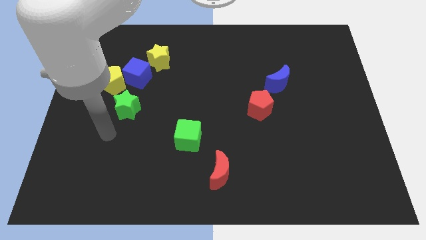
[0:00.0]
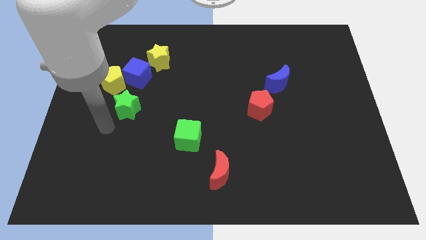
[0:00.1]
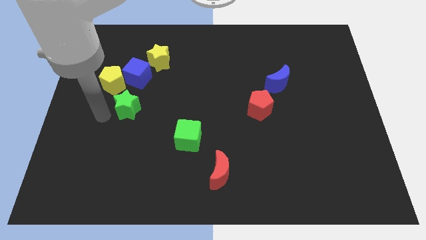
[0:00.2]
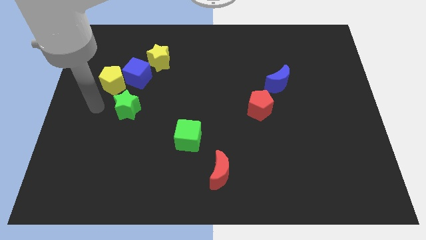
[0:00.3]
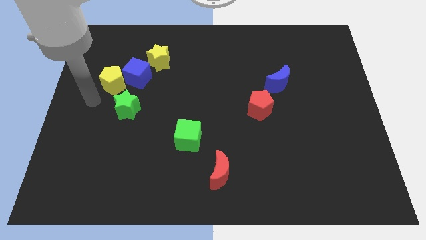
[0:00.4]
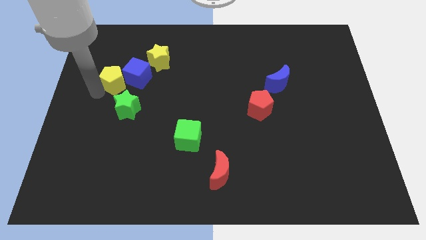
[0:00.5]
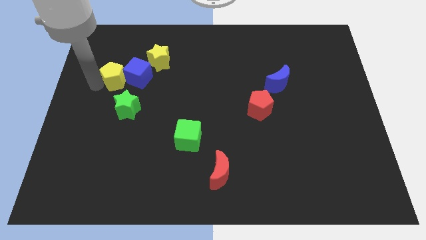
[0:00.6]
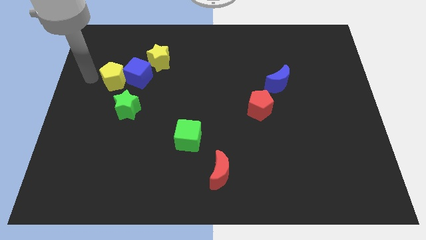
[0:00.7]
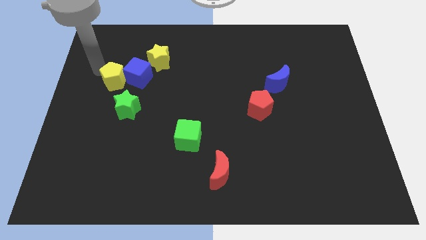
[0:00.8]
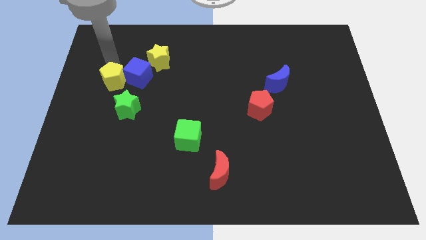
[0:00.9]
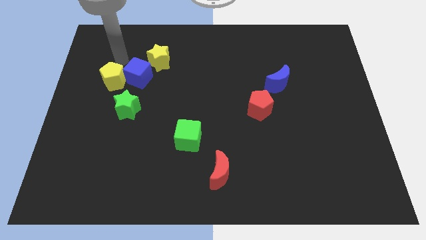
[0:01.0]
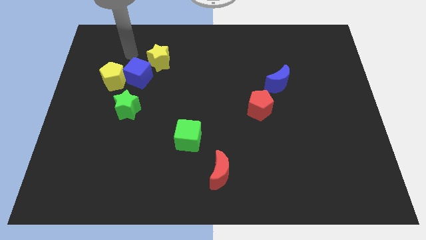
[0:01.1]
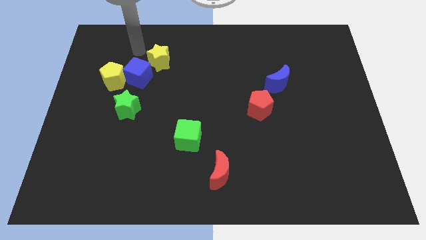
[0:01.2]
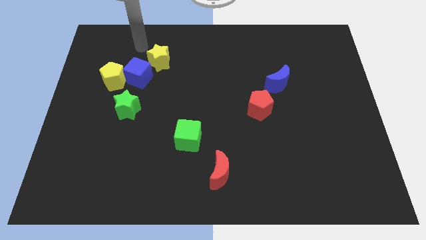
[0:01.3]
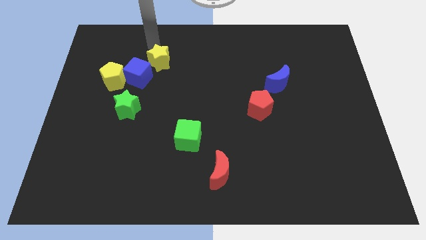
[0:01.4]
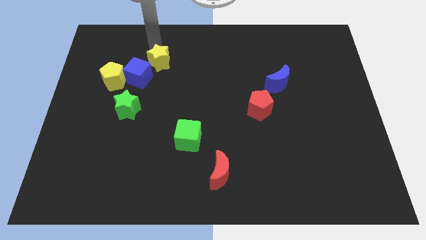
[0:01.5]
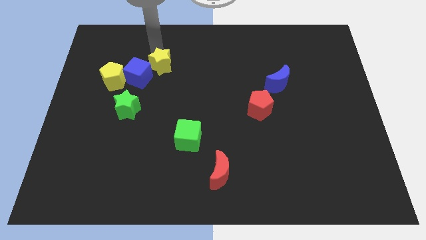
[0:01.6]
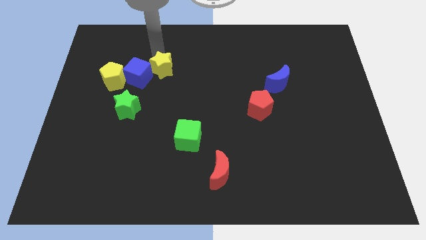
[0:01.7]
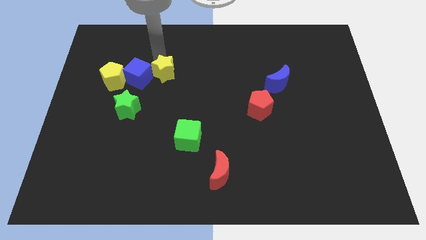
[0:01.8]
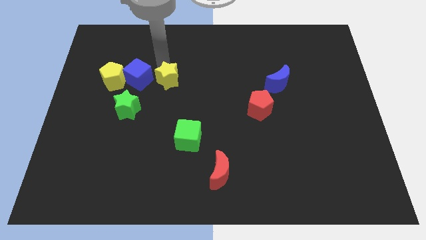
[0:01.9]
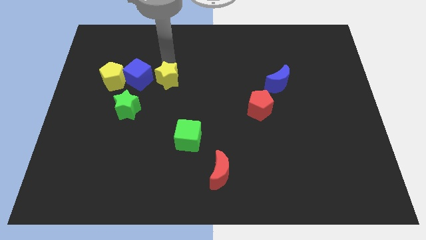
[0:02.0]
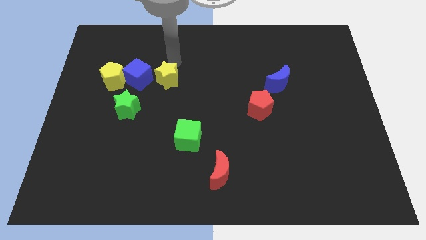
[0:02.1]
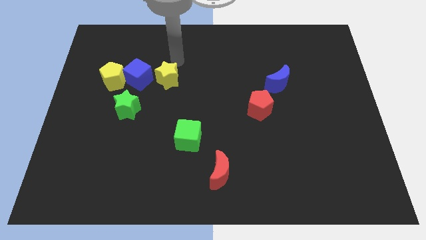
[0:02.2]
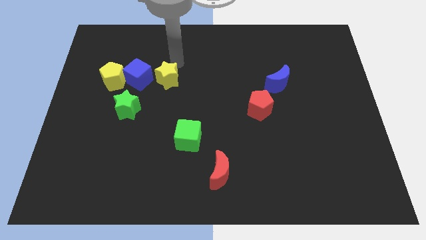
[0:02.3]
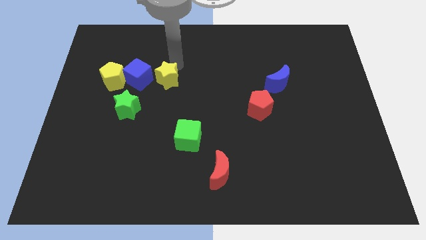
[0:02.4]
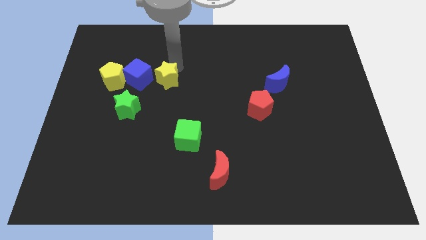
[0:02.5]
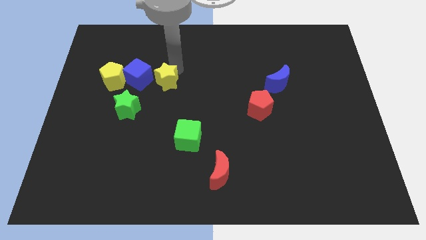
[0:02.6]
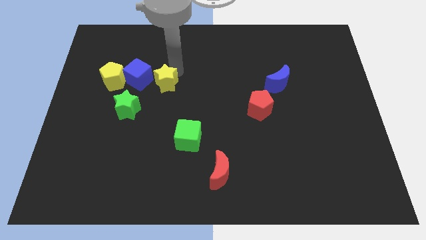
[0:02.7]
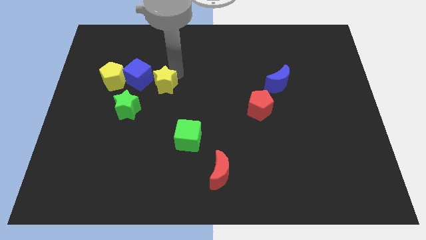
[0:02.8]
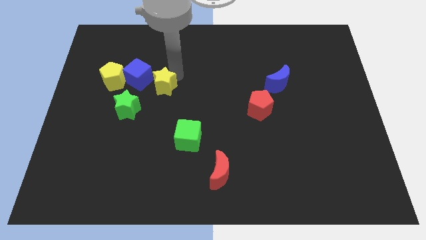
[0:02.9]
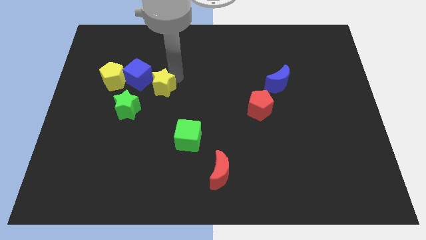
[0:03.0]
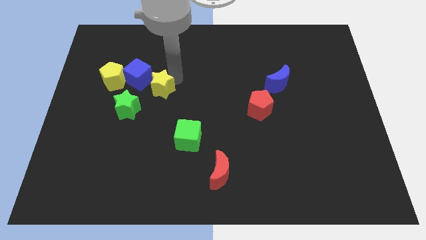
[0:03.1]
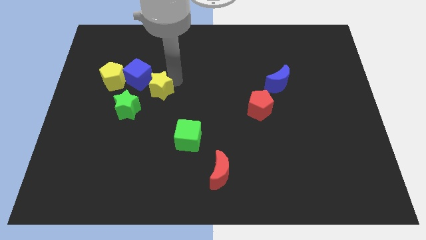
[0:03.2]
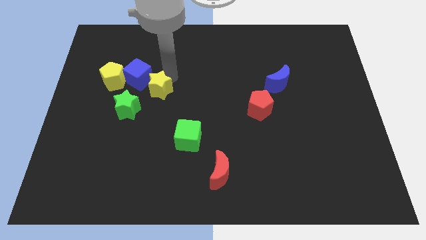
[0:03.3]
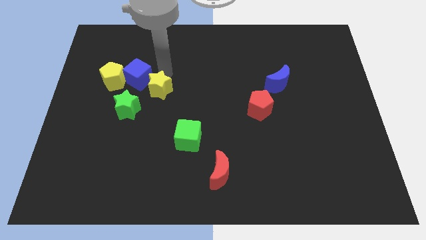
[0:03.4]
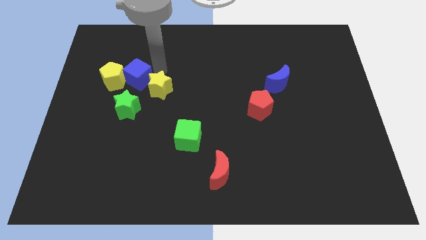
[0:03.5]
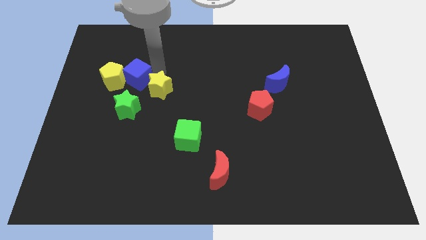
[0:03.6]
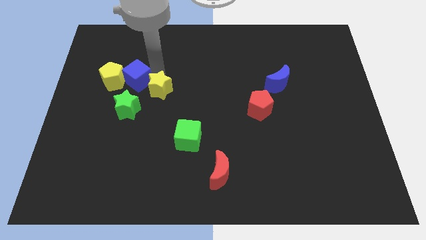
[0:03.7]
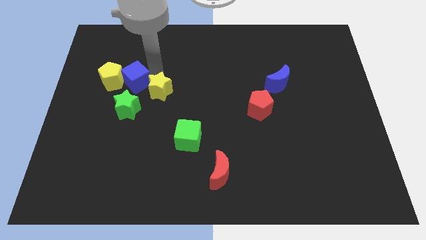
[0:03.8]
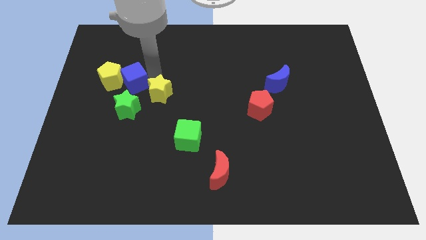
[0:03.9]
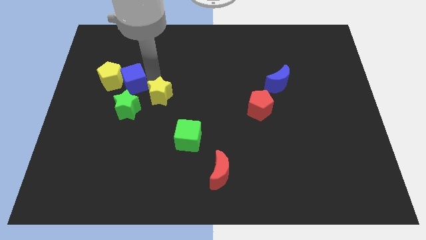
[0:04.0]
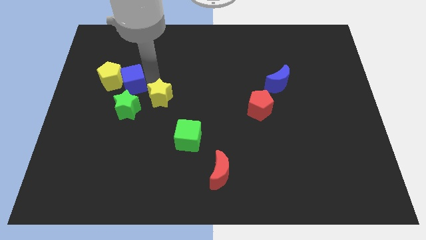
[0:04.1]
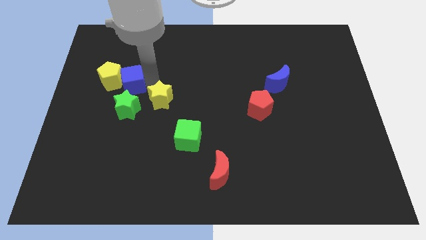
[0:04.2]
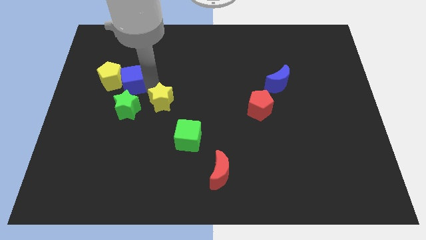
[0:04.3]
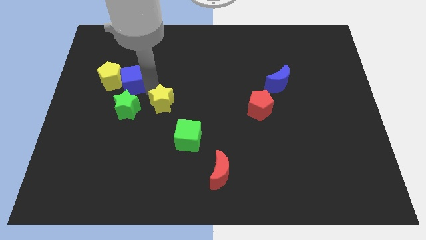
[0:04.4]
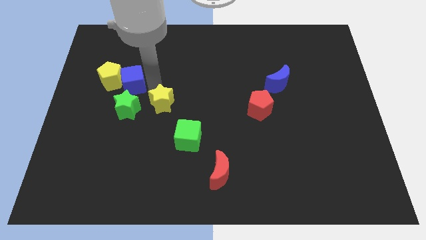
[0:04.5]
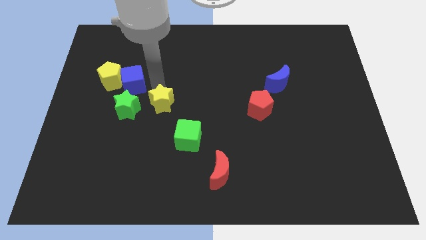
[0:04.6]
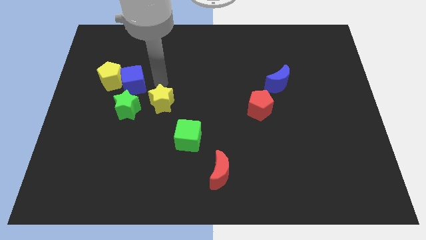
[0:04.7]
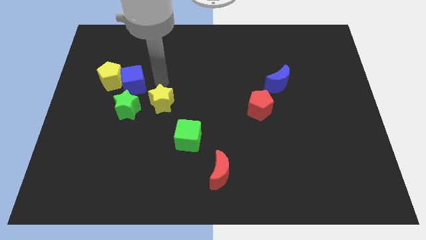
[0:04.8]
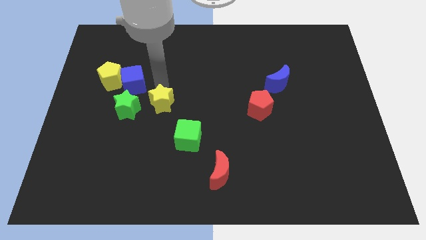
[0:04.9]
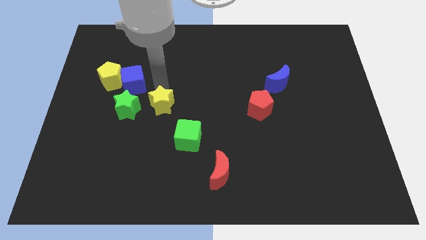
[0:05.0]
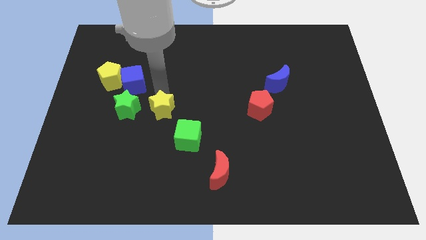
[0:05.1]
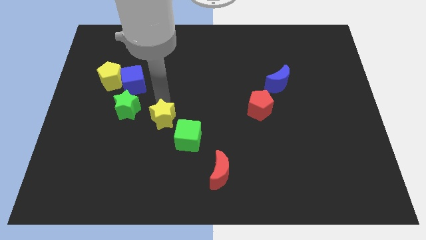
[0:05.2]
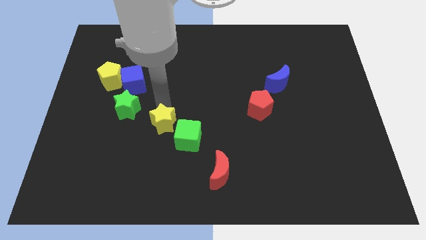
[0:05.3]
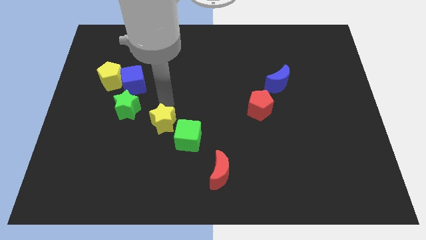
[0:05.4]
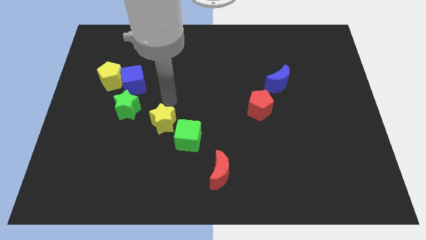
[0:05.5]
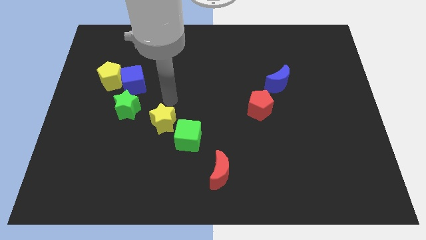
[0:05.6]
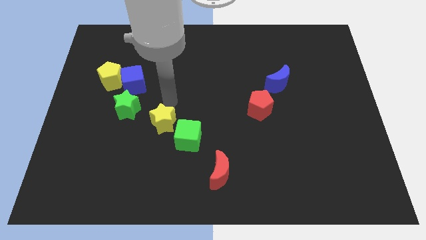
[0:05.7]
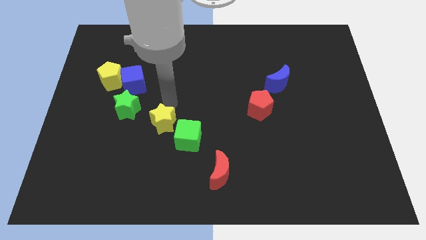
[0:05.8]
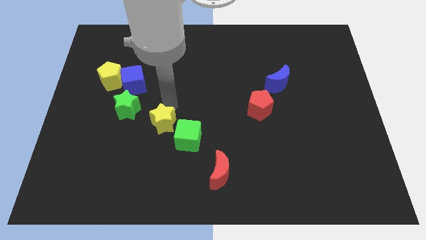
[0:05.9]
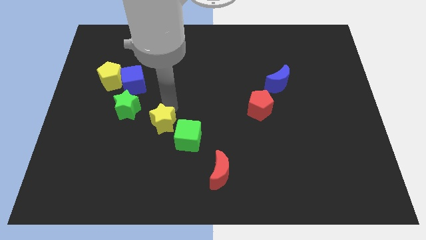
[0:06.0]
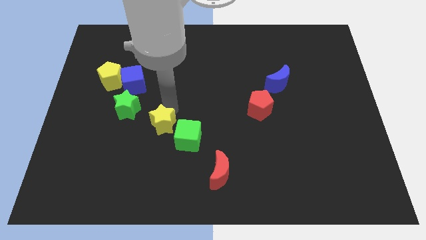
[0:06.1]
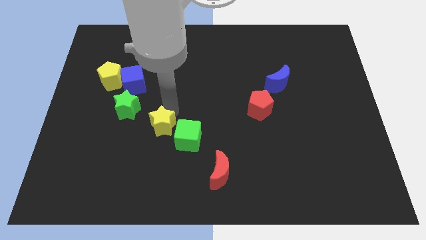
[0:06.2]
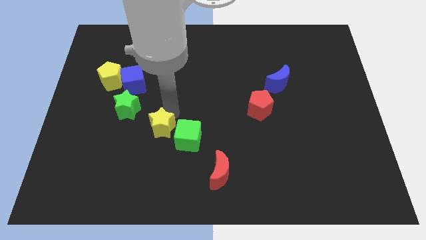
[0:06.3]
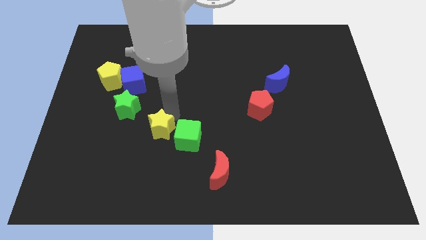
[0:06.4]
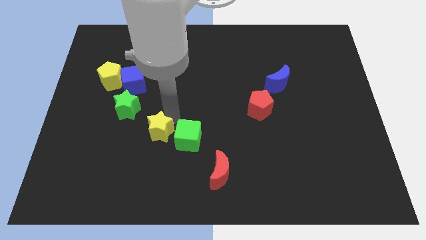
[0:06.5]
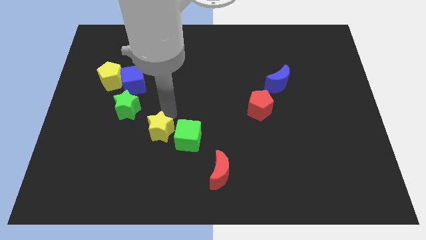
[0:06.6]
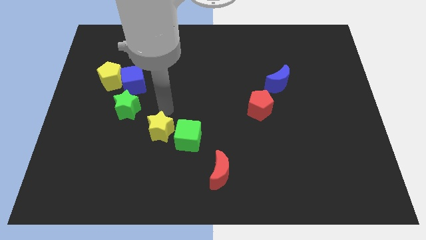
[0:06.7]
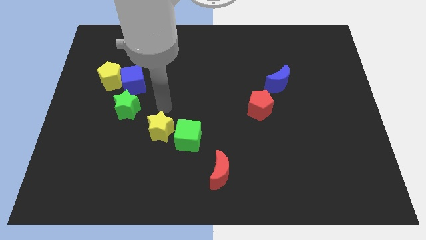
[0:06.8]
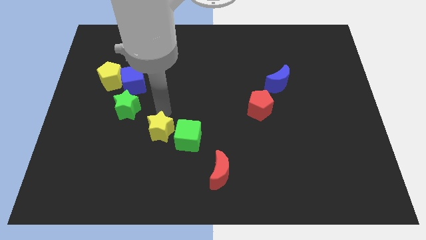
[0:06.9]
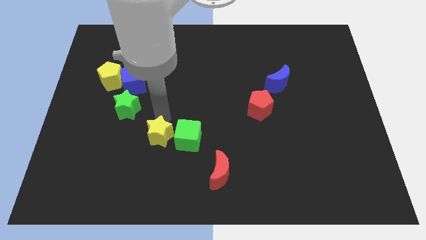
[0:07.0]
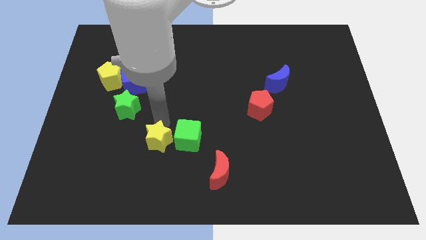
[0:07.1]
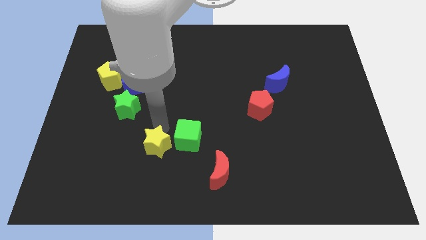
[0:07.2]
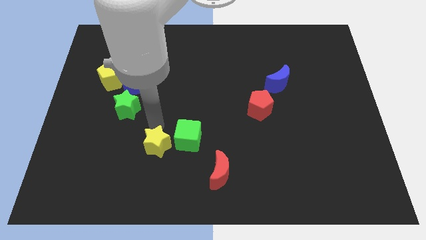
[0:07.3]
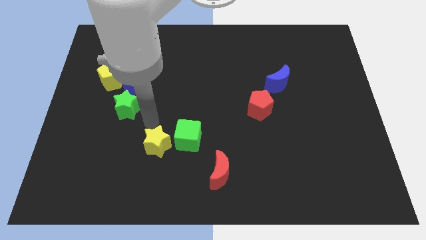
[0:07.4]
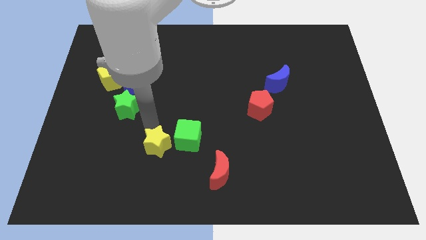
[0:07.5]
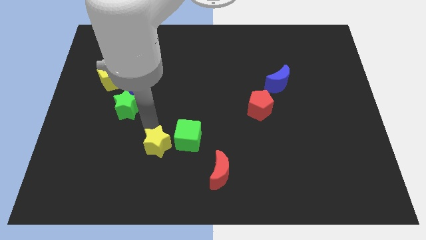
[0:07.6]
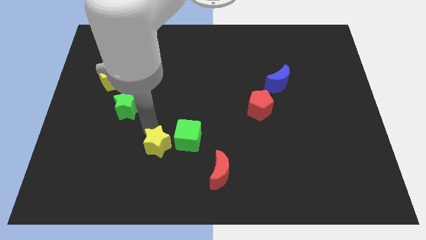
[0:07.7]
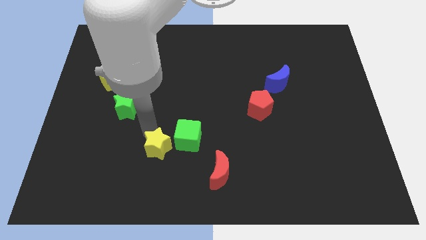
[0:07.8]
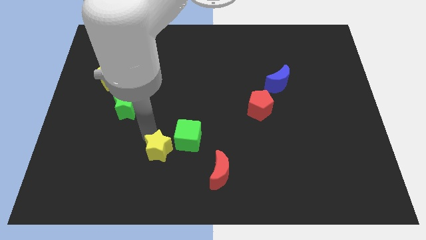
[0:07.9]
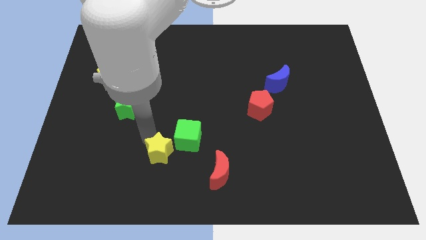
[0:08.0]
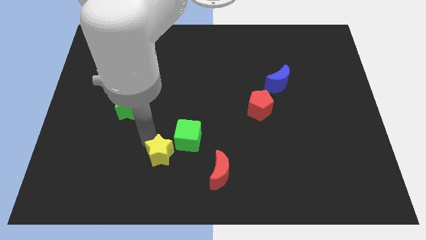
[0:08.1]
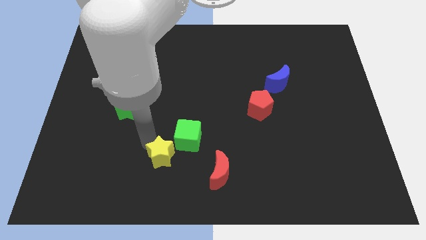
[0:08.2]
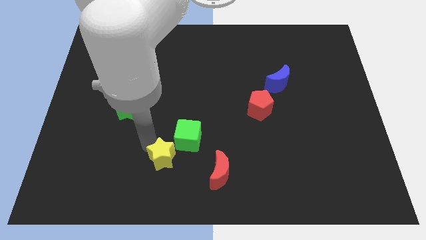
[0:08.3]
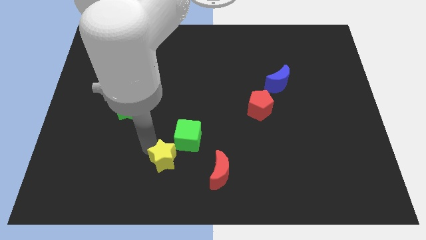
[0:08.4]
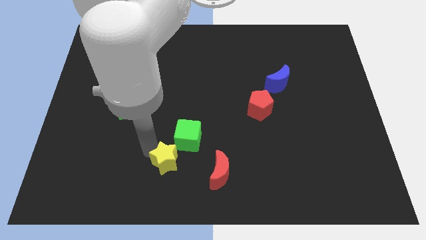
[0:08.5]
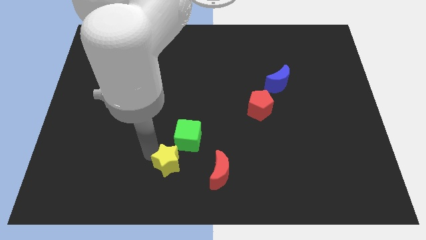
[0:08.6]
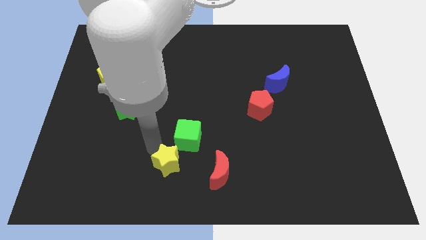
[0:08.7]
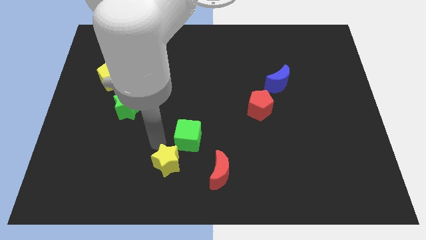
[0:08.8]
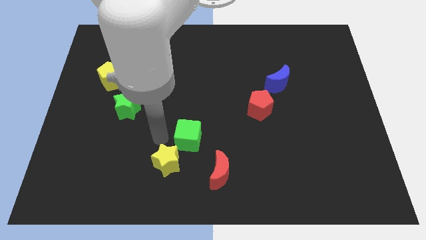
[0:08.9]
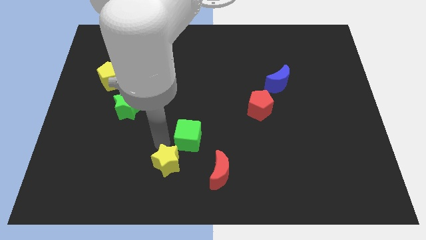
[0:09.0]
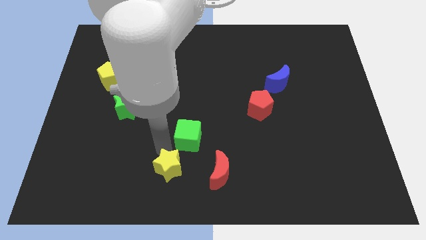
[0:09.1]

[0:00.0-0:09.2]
move the yellow star to the bottom
